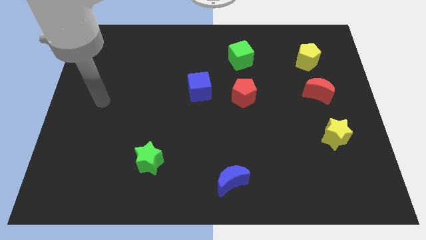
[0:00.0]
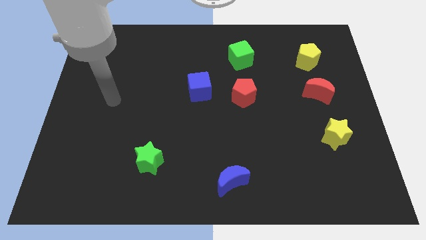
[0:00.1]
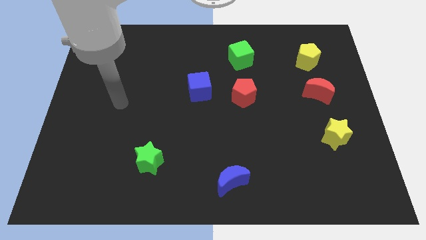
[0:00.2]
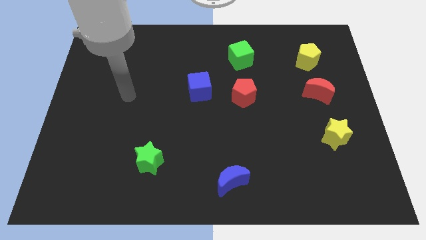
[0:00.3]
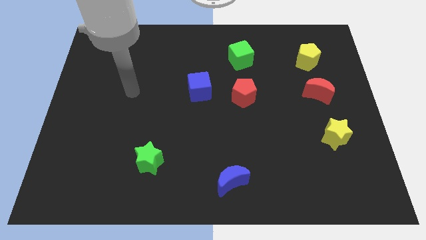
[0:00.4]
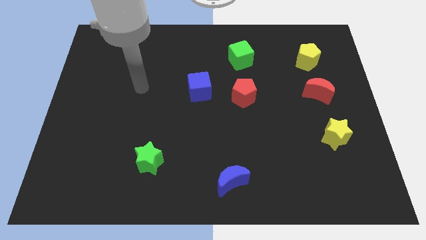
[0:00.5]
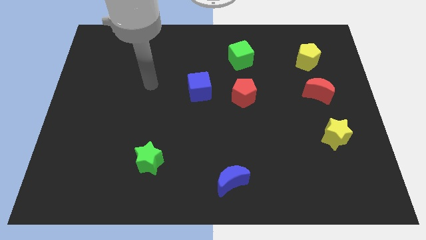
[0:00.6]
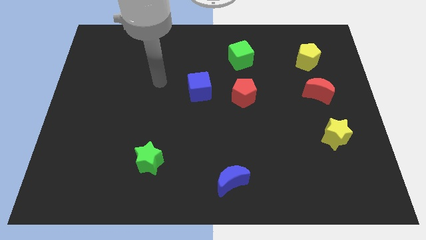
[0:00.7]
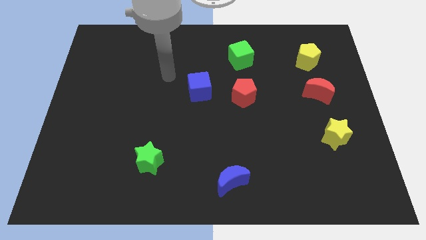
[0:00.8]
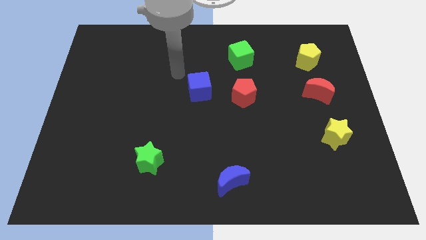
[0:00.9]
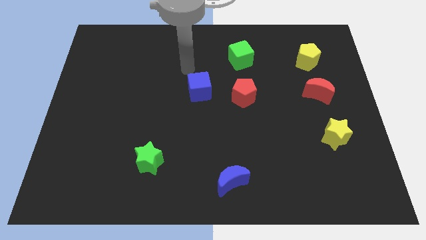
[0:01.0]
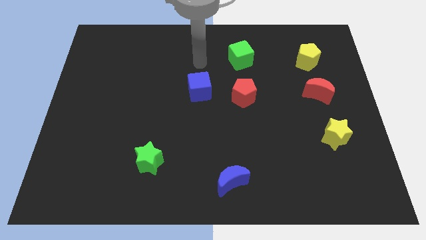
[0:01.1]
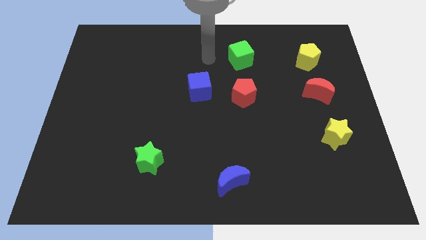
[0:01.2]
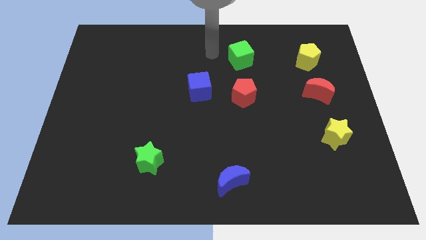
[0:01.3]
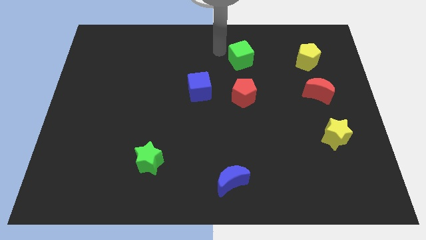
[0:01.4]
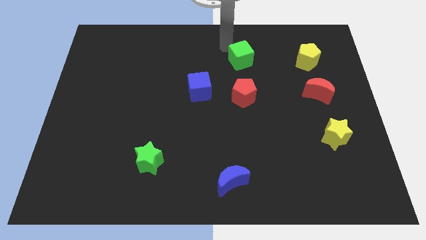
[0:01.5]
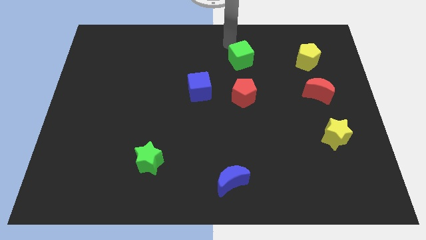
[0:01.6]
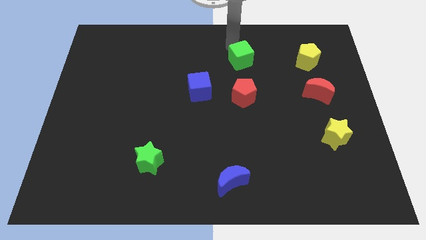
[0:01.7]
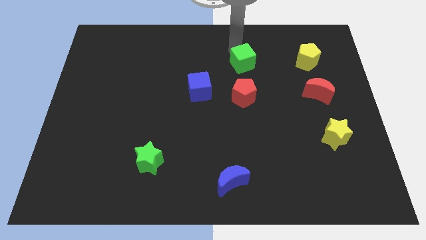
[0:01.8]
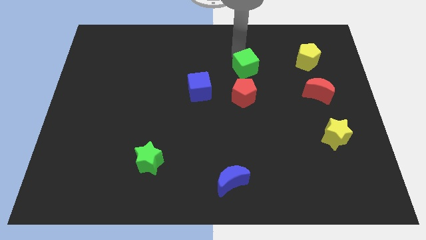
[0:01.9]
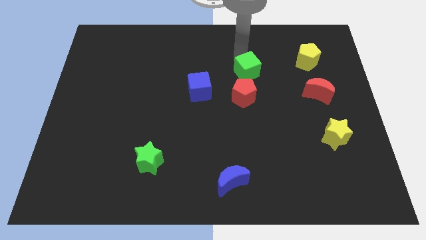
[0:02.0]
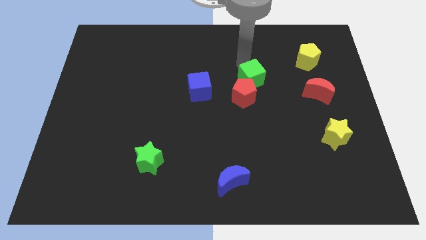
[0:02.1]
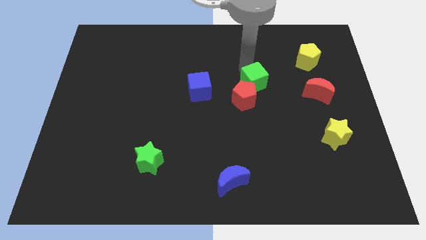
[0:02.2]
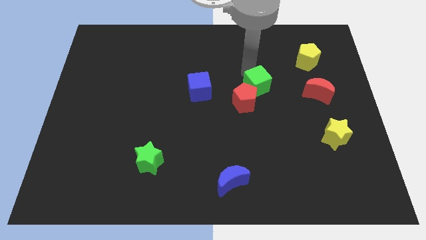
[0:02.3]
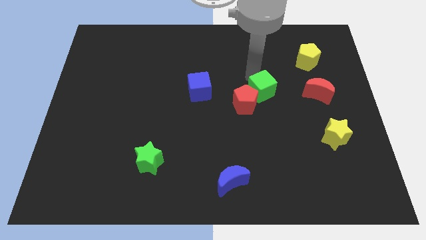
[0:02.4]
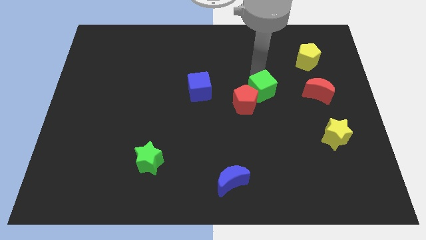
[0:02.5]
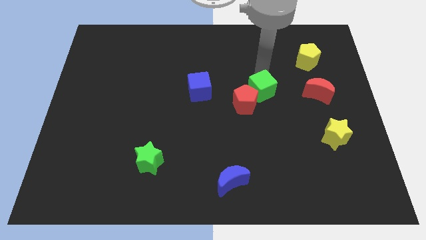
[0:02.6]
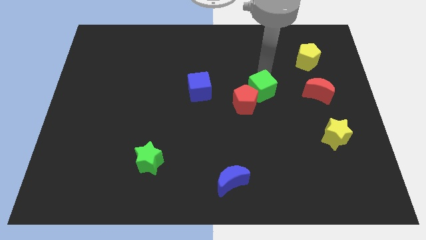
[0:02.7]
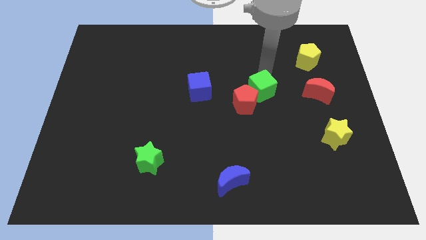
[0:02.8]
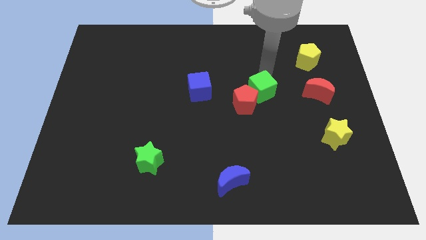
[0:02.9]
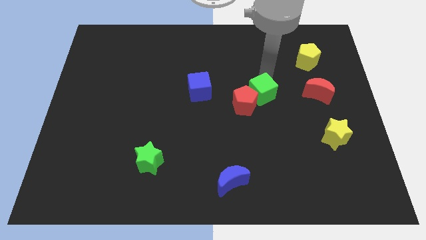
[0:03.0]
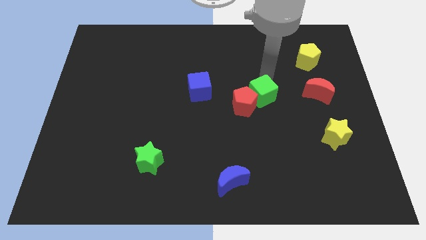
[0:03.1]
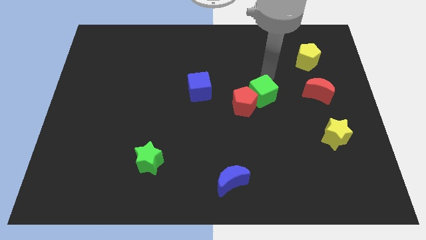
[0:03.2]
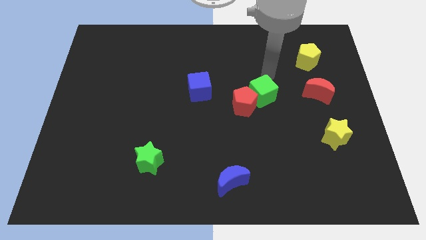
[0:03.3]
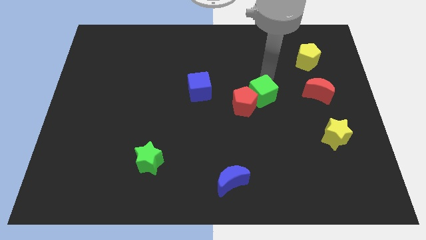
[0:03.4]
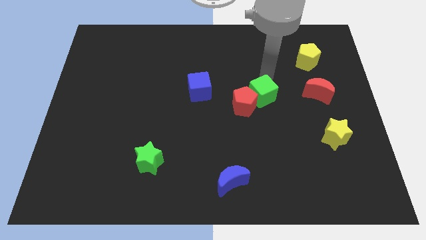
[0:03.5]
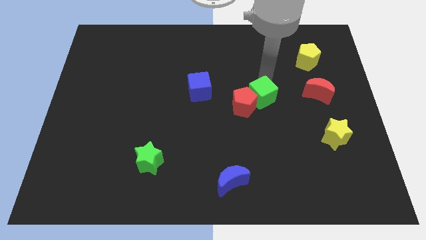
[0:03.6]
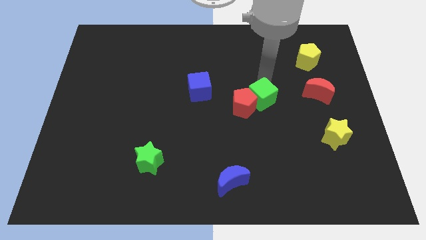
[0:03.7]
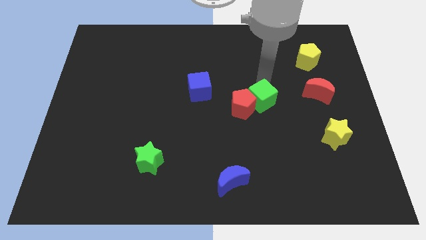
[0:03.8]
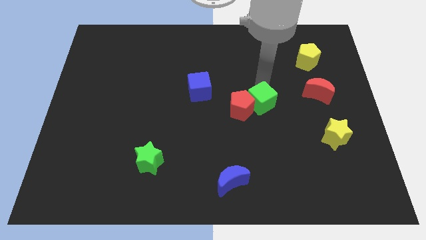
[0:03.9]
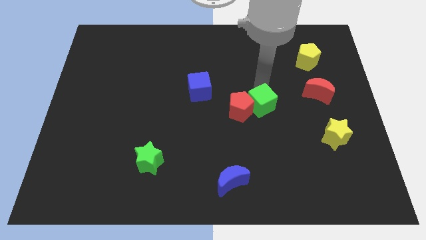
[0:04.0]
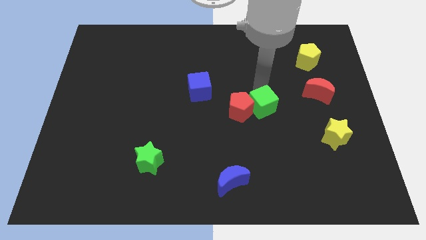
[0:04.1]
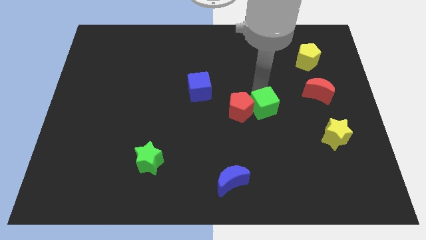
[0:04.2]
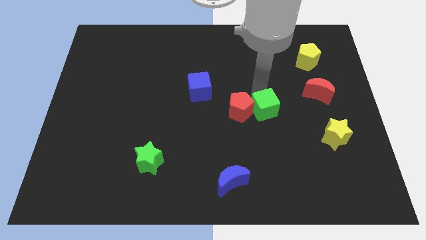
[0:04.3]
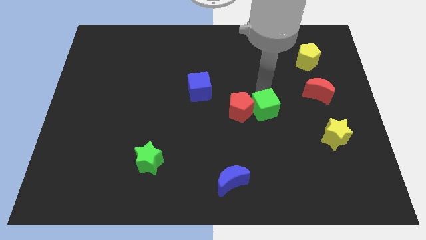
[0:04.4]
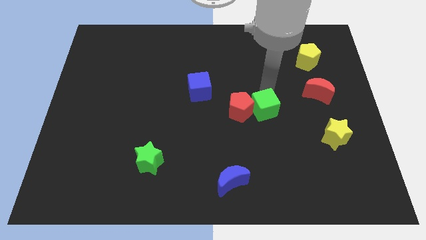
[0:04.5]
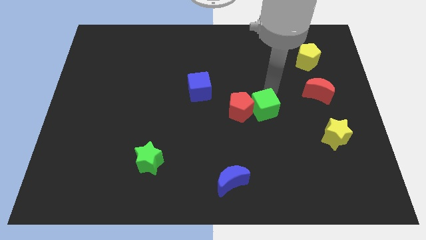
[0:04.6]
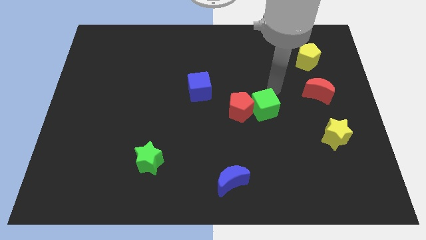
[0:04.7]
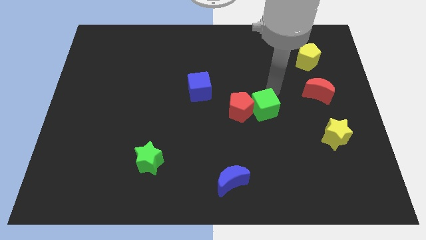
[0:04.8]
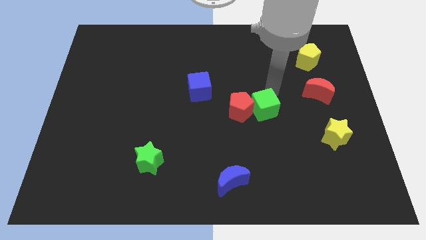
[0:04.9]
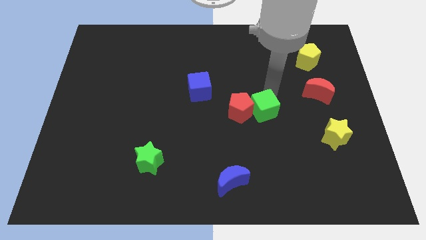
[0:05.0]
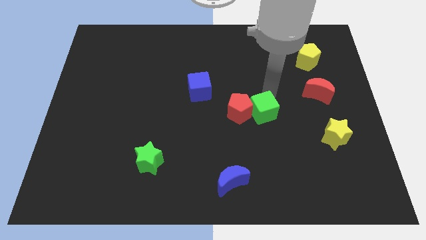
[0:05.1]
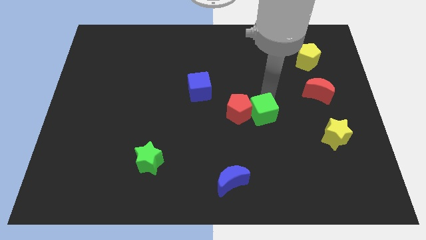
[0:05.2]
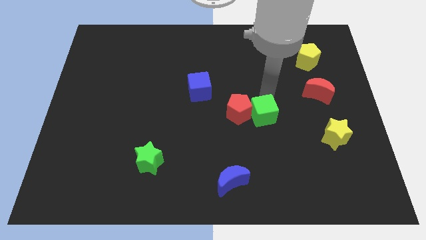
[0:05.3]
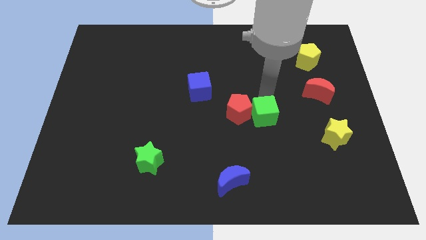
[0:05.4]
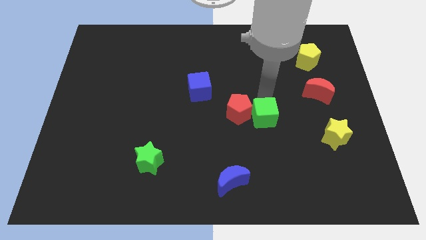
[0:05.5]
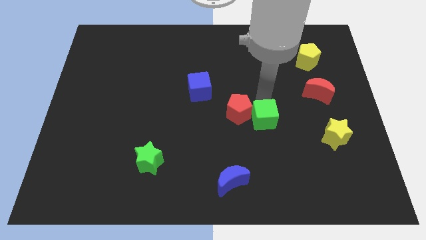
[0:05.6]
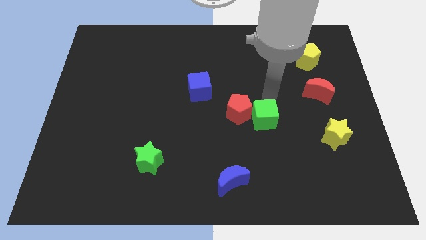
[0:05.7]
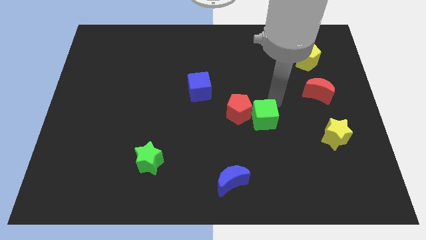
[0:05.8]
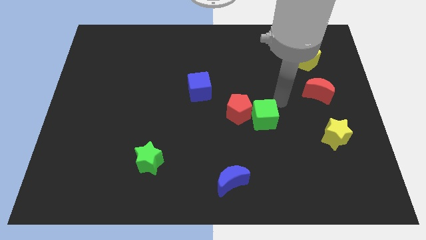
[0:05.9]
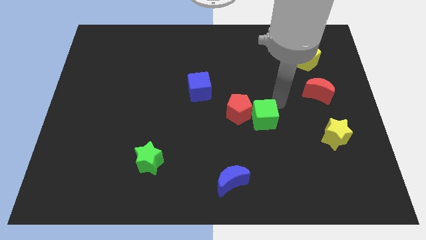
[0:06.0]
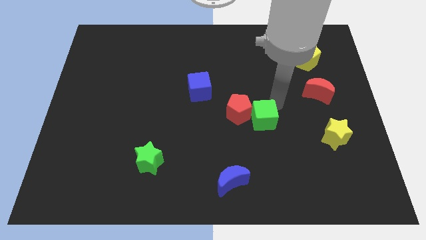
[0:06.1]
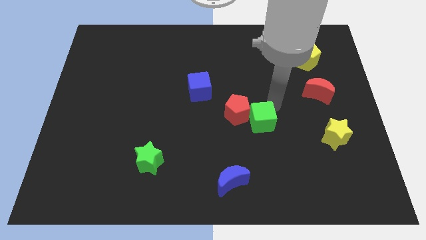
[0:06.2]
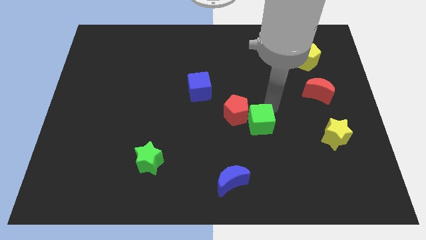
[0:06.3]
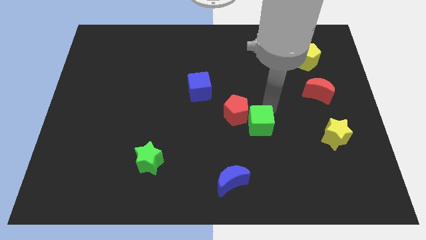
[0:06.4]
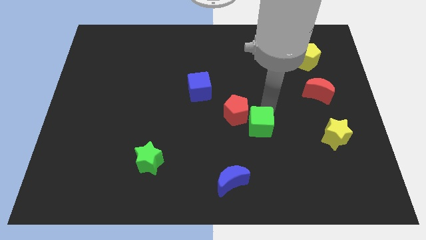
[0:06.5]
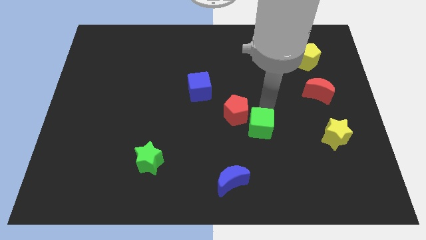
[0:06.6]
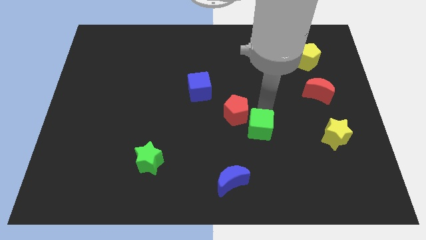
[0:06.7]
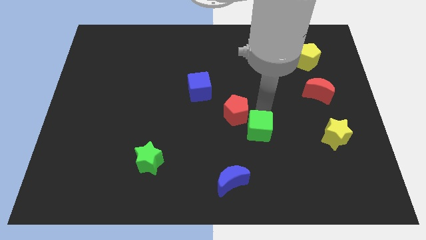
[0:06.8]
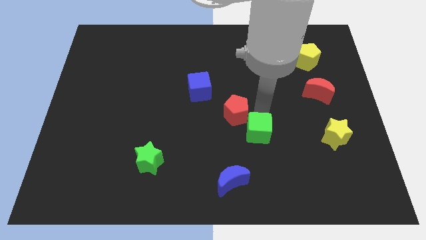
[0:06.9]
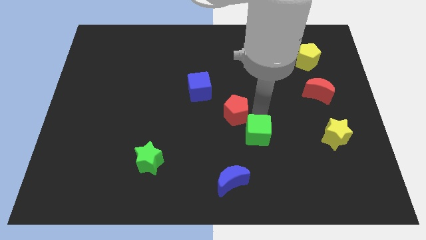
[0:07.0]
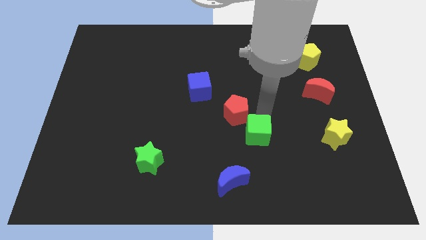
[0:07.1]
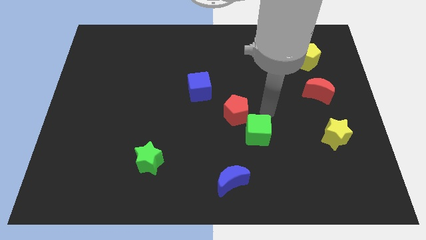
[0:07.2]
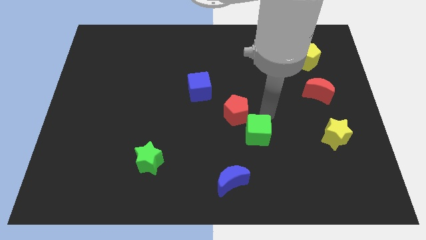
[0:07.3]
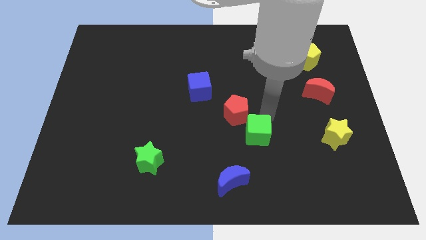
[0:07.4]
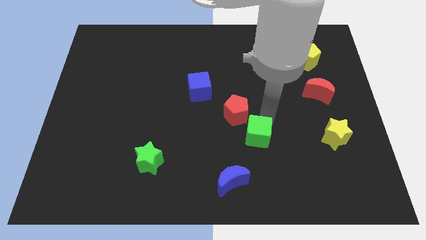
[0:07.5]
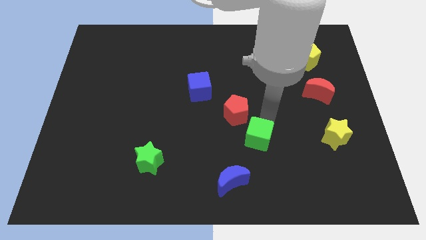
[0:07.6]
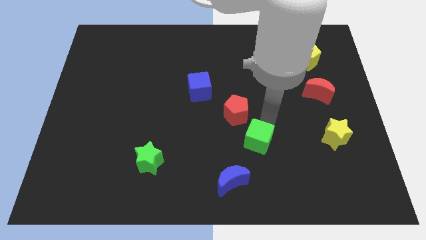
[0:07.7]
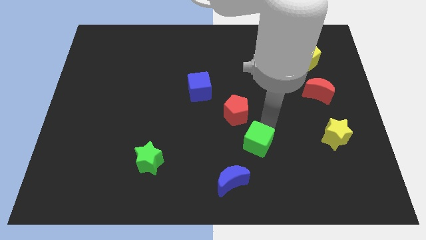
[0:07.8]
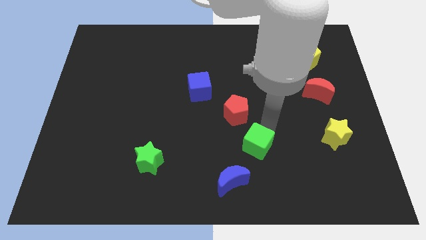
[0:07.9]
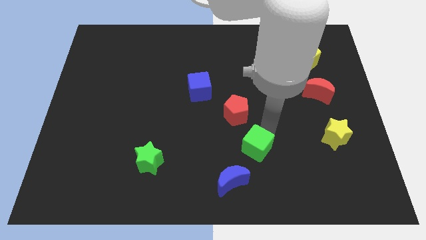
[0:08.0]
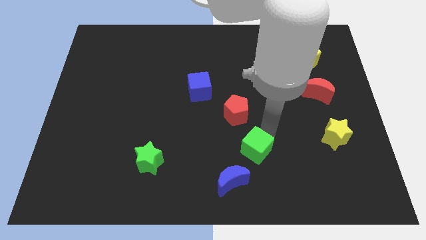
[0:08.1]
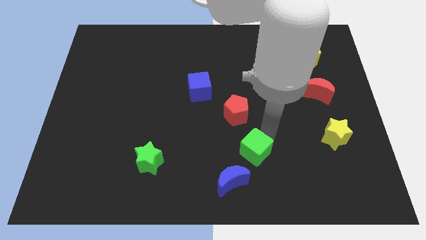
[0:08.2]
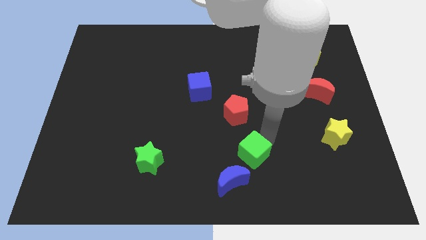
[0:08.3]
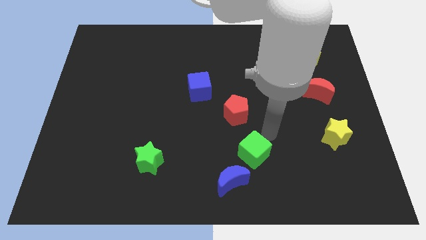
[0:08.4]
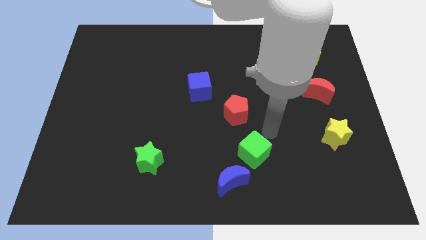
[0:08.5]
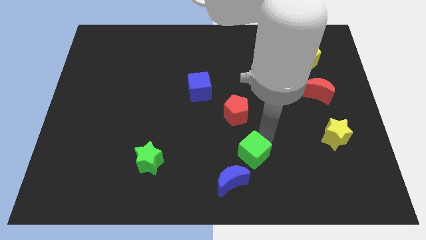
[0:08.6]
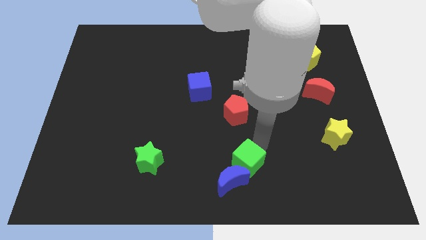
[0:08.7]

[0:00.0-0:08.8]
slide the green cube close to the blue moon
